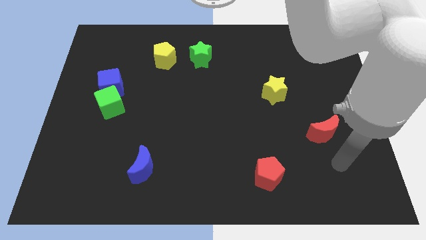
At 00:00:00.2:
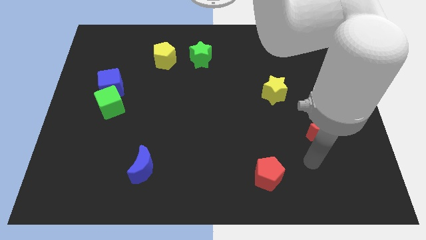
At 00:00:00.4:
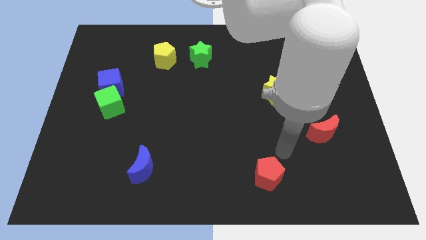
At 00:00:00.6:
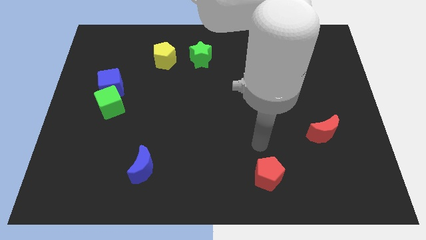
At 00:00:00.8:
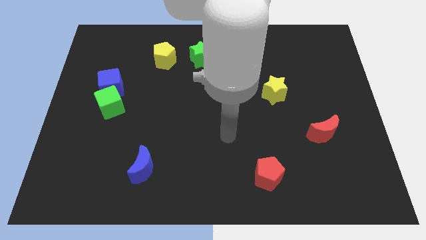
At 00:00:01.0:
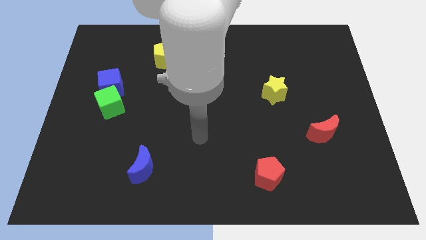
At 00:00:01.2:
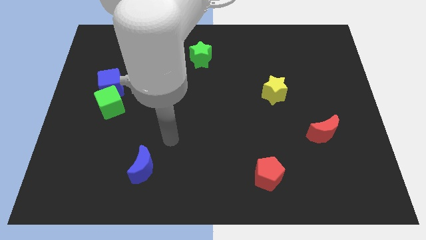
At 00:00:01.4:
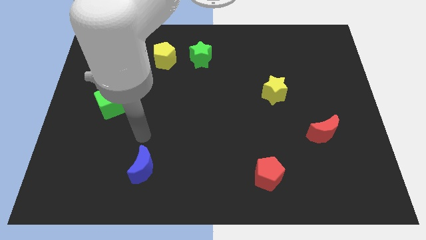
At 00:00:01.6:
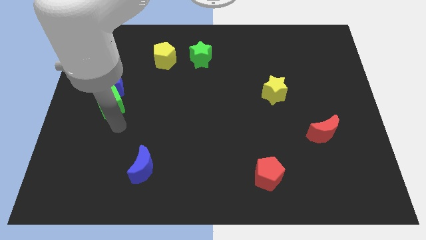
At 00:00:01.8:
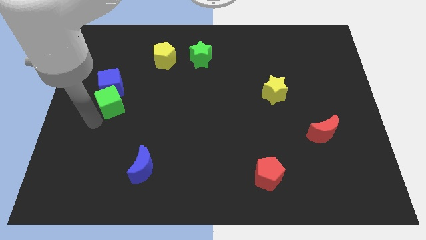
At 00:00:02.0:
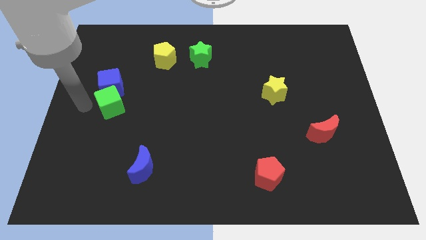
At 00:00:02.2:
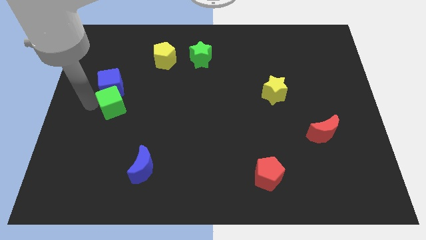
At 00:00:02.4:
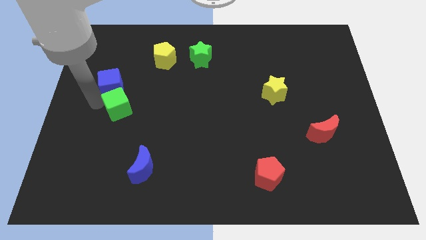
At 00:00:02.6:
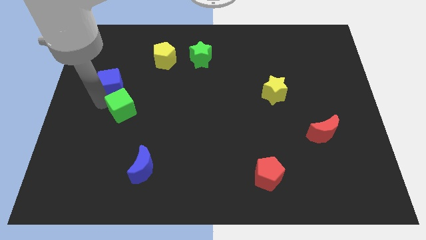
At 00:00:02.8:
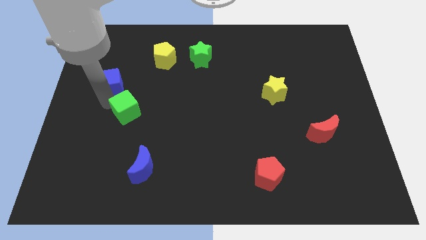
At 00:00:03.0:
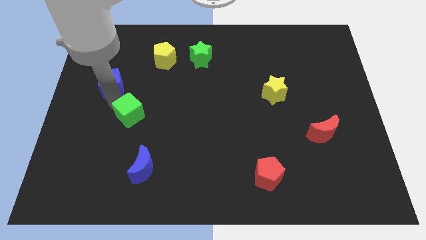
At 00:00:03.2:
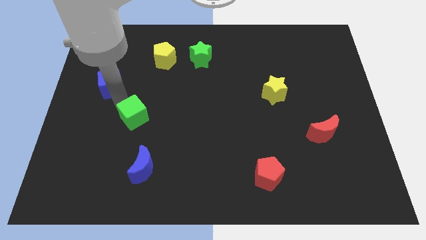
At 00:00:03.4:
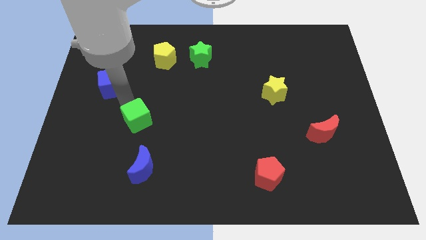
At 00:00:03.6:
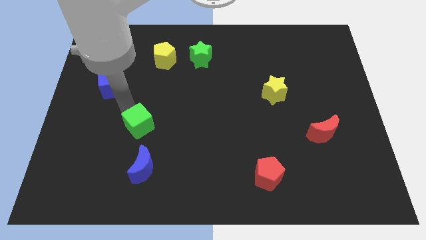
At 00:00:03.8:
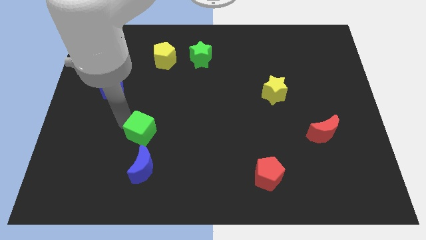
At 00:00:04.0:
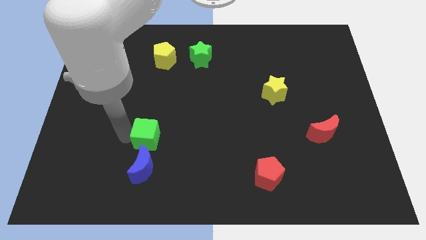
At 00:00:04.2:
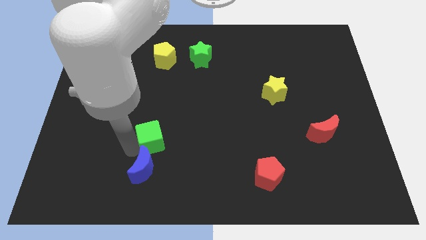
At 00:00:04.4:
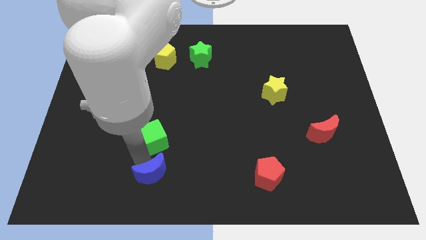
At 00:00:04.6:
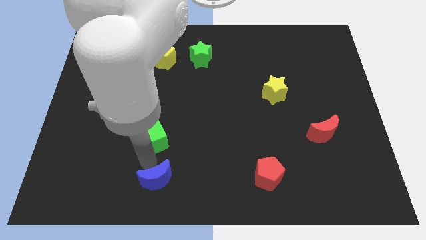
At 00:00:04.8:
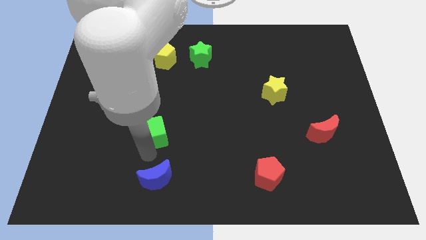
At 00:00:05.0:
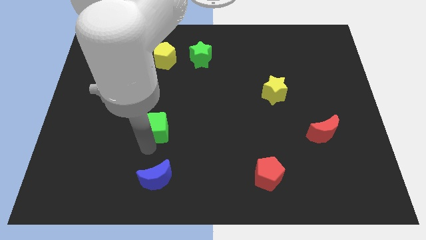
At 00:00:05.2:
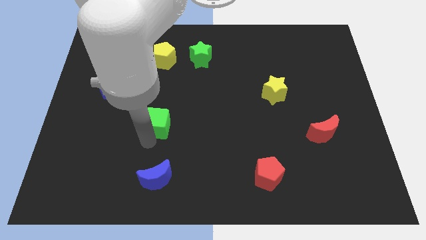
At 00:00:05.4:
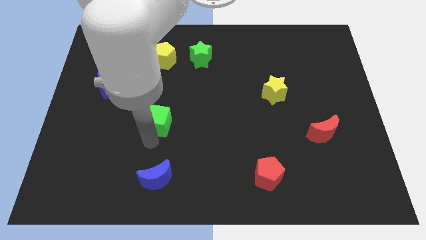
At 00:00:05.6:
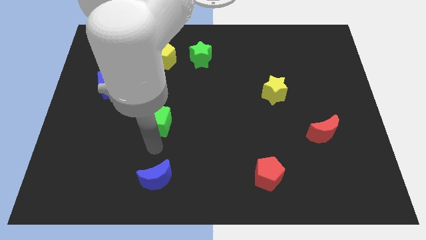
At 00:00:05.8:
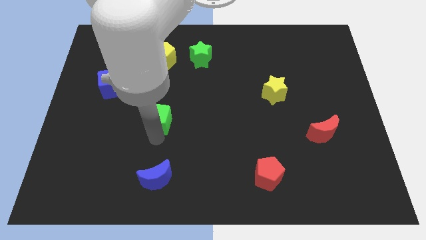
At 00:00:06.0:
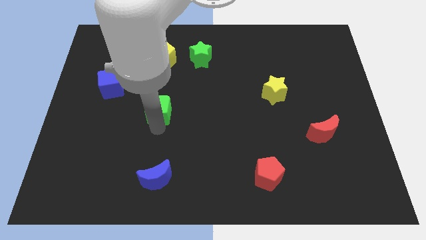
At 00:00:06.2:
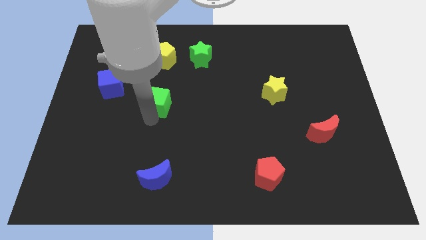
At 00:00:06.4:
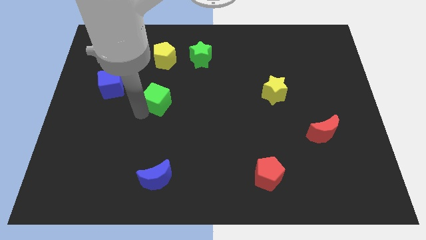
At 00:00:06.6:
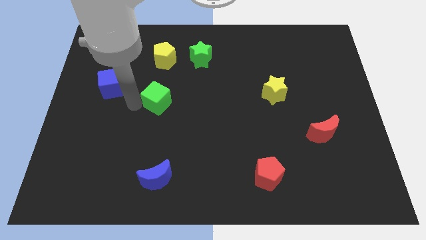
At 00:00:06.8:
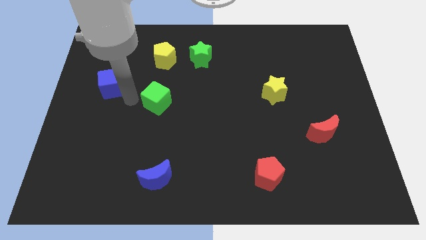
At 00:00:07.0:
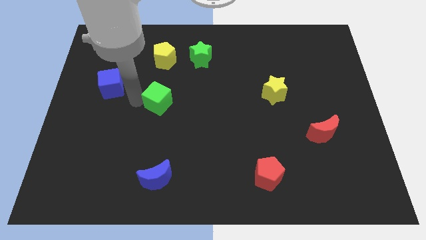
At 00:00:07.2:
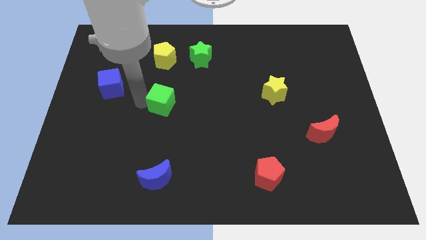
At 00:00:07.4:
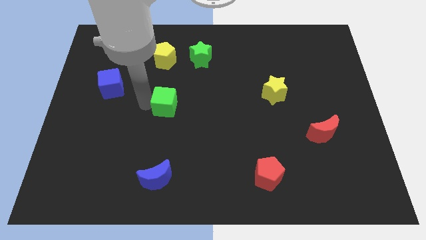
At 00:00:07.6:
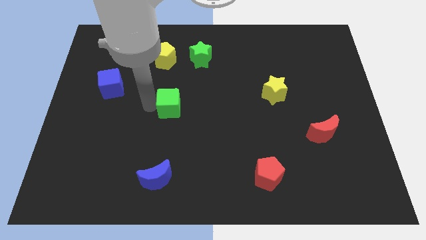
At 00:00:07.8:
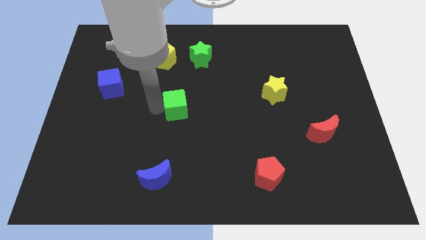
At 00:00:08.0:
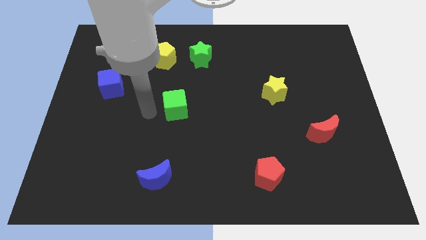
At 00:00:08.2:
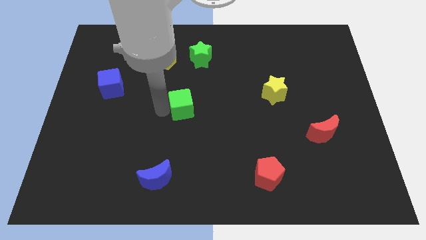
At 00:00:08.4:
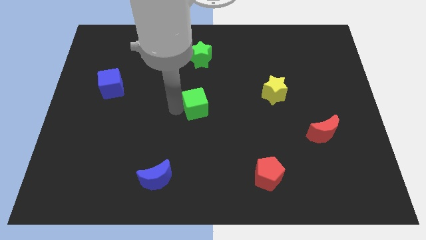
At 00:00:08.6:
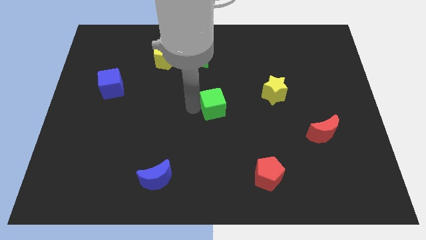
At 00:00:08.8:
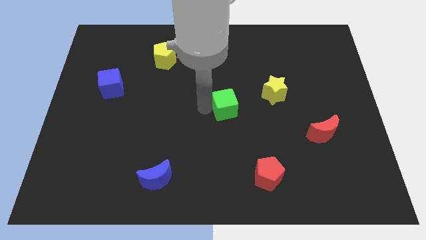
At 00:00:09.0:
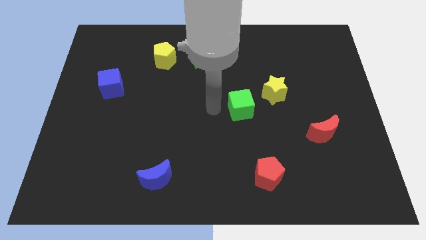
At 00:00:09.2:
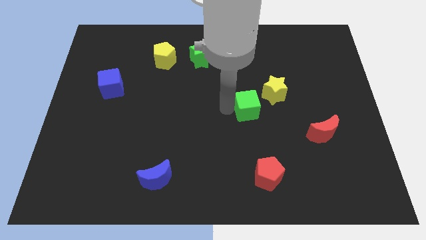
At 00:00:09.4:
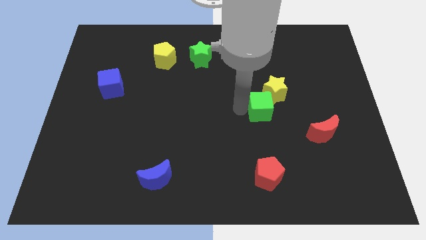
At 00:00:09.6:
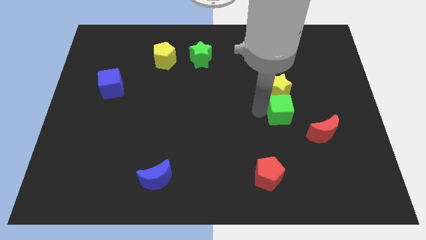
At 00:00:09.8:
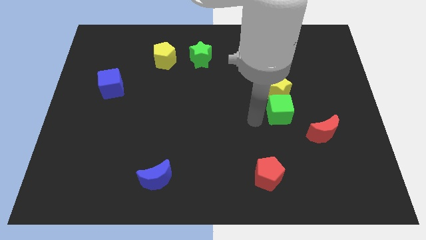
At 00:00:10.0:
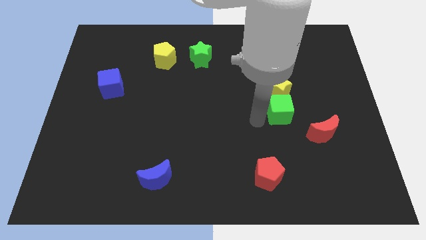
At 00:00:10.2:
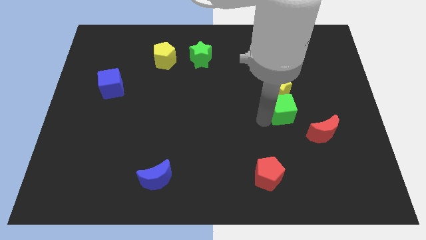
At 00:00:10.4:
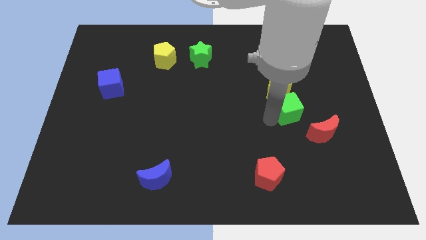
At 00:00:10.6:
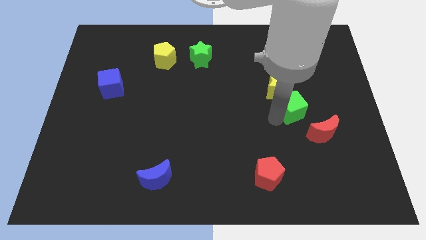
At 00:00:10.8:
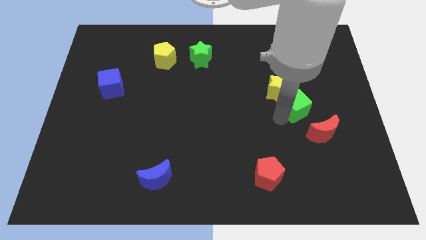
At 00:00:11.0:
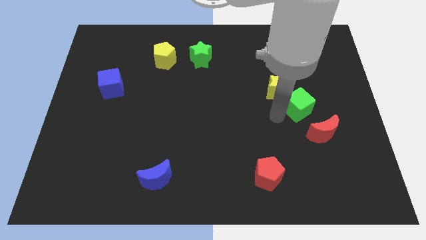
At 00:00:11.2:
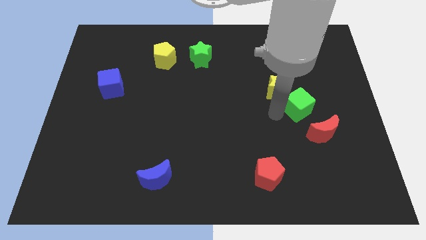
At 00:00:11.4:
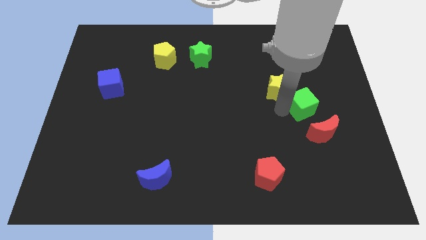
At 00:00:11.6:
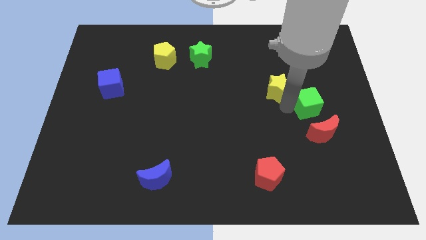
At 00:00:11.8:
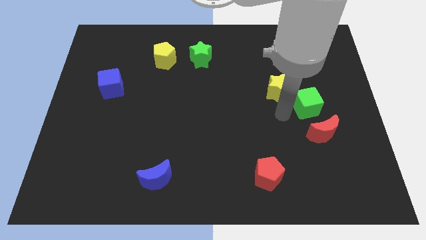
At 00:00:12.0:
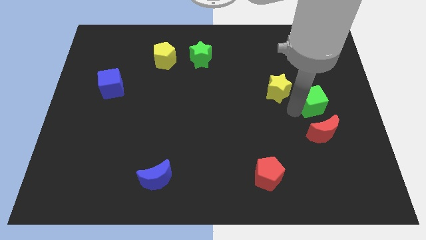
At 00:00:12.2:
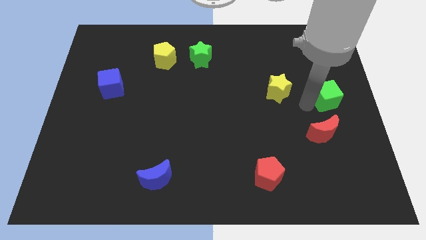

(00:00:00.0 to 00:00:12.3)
push the green cube to the right side of the board
